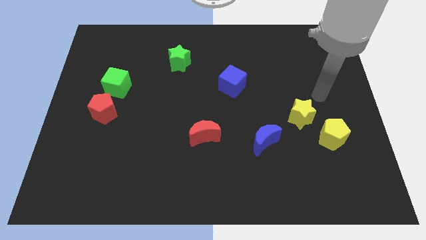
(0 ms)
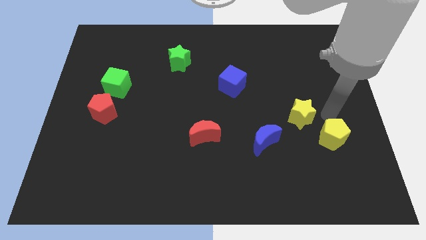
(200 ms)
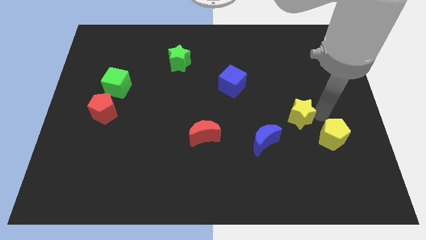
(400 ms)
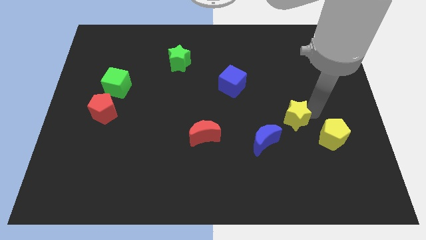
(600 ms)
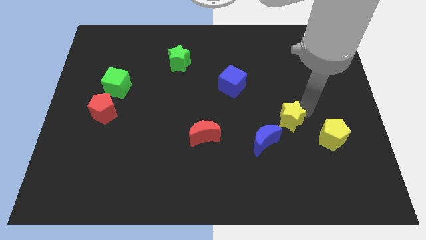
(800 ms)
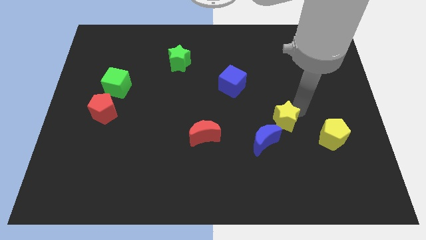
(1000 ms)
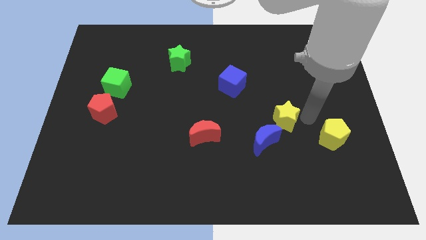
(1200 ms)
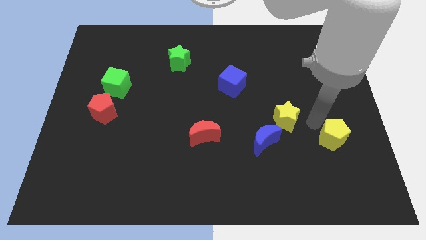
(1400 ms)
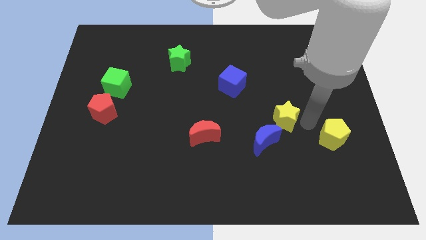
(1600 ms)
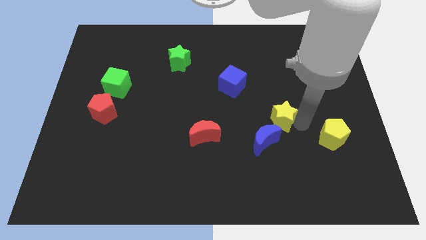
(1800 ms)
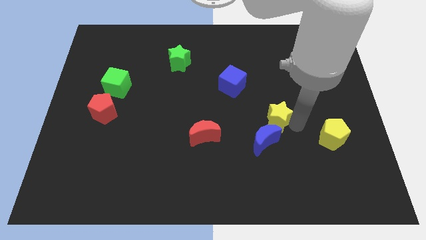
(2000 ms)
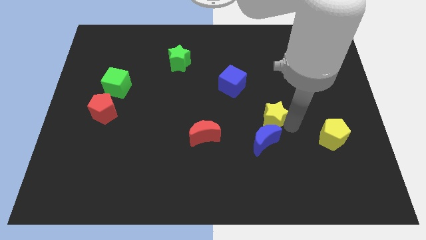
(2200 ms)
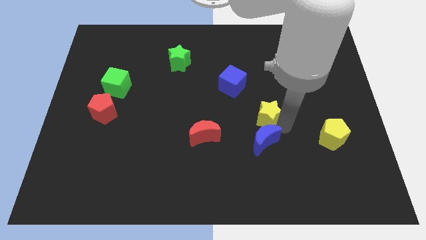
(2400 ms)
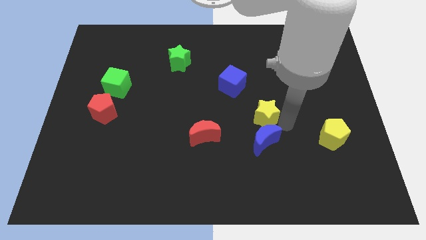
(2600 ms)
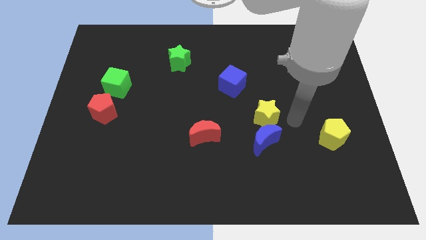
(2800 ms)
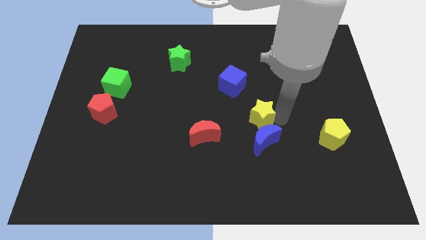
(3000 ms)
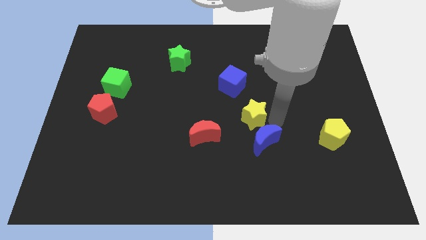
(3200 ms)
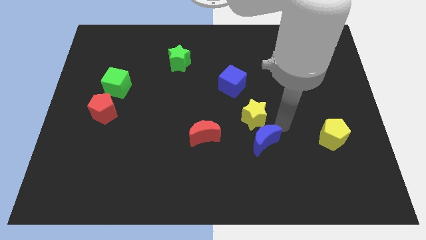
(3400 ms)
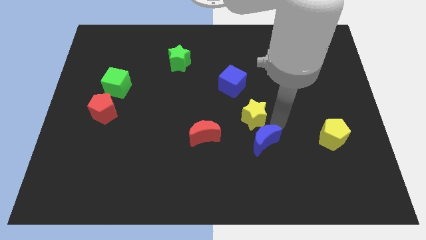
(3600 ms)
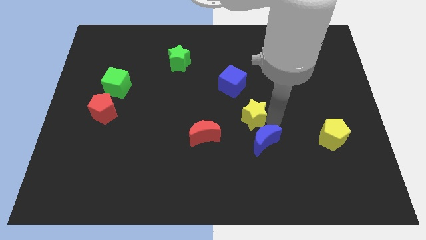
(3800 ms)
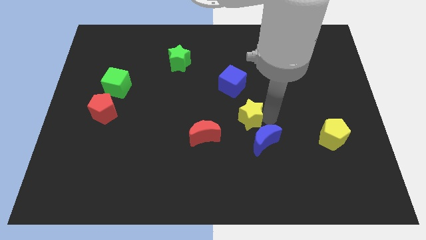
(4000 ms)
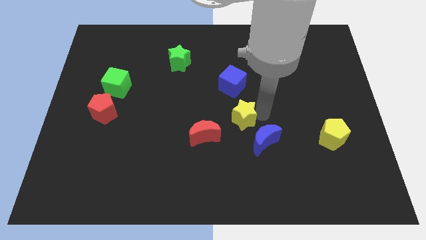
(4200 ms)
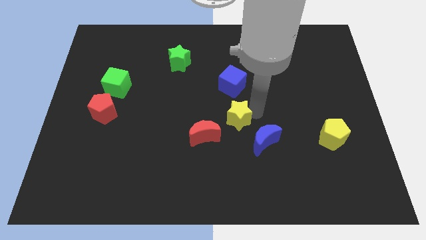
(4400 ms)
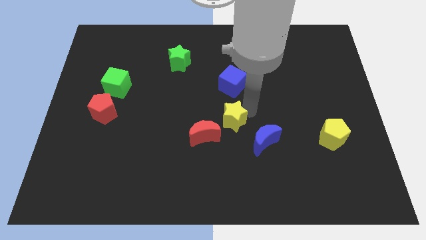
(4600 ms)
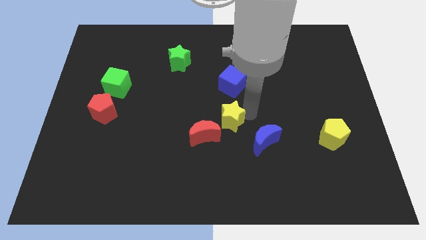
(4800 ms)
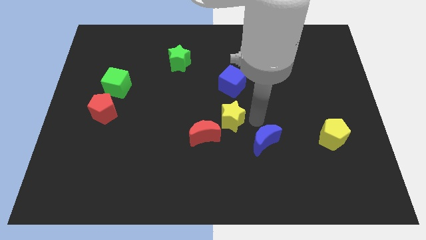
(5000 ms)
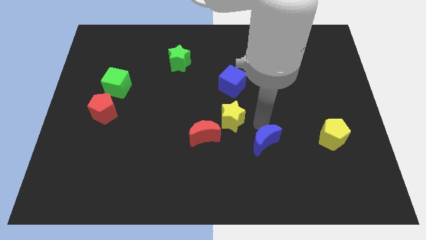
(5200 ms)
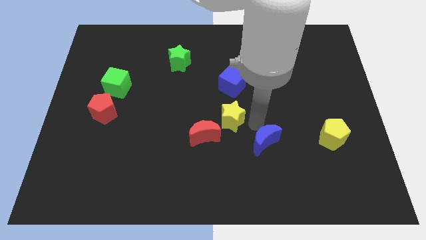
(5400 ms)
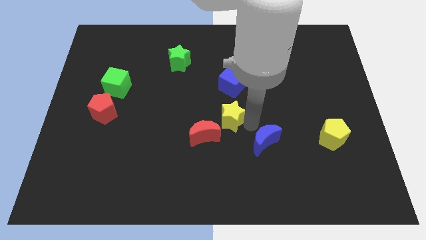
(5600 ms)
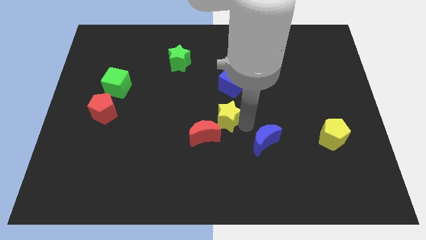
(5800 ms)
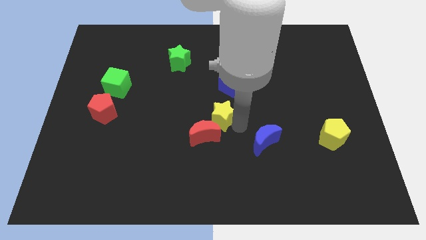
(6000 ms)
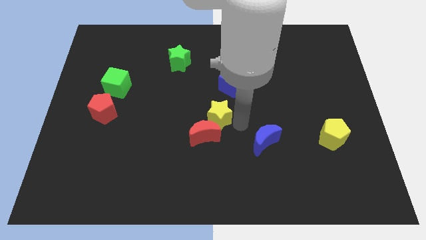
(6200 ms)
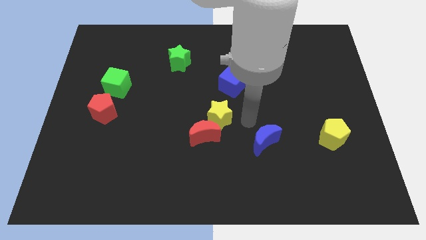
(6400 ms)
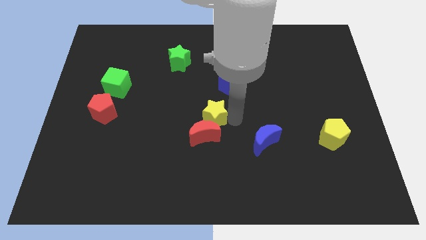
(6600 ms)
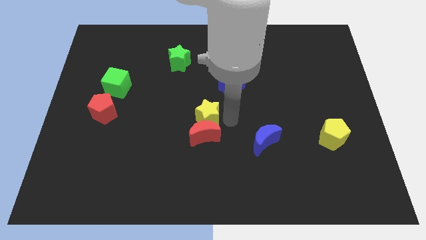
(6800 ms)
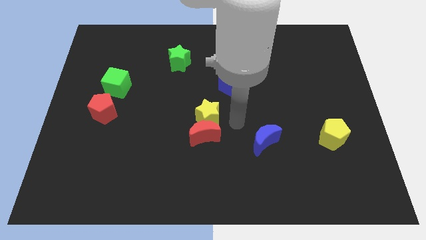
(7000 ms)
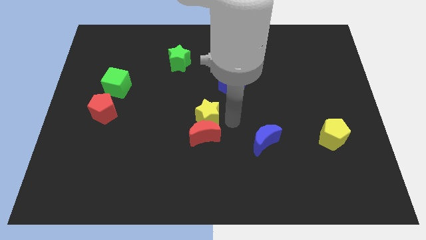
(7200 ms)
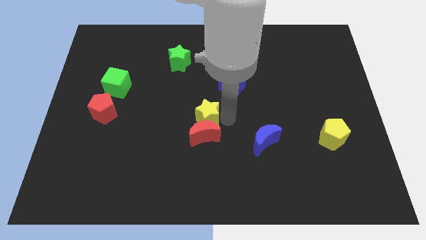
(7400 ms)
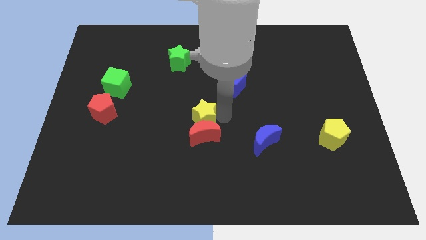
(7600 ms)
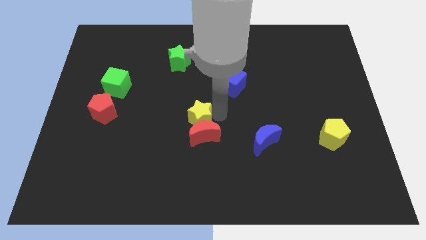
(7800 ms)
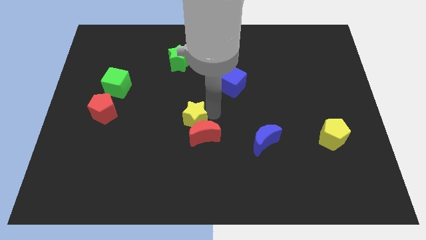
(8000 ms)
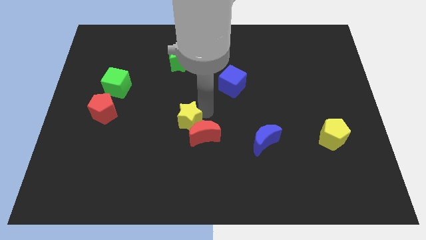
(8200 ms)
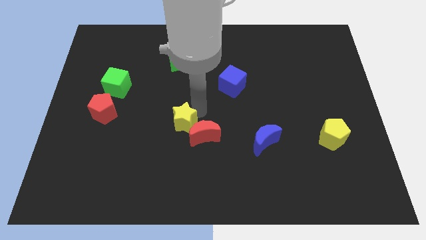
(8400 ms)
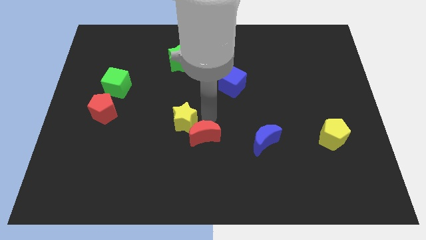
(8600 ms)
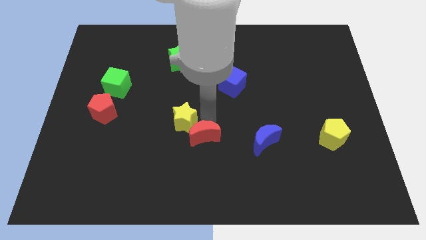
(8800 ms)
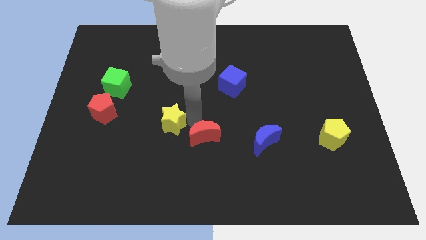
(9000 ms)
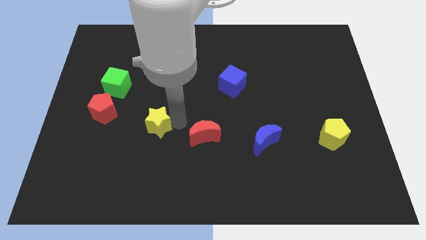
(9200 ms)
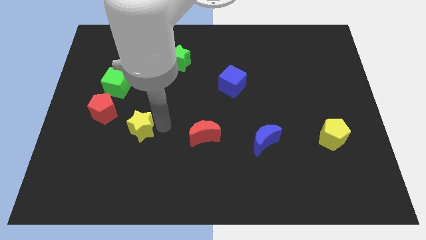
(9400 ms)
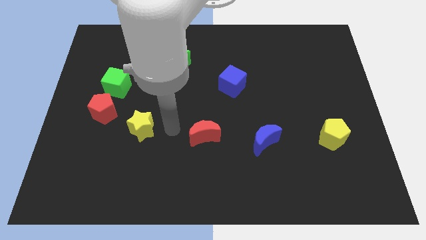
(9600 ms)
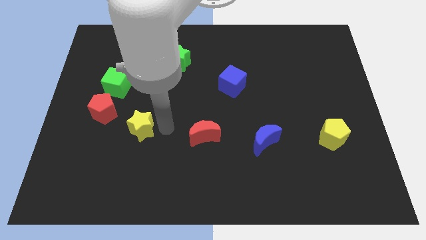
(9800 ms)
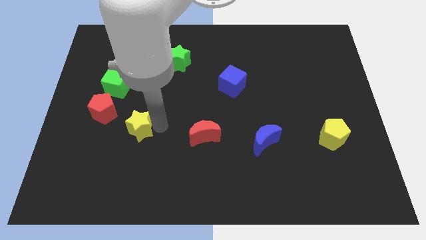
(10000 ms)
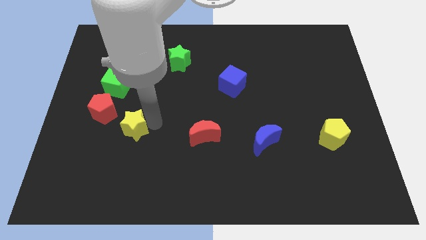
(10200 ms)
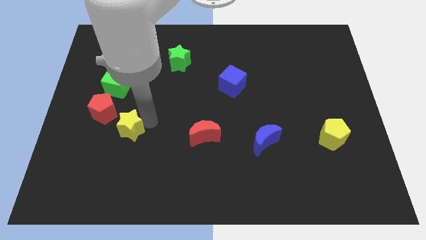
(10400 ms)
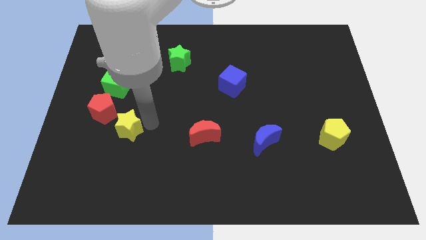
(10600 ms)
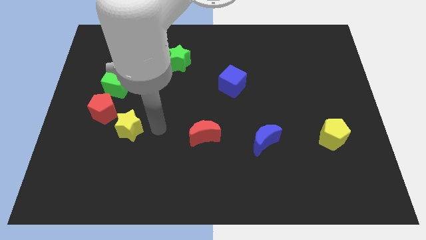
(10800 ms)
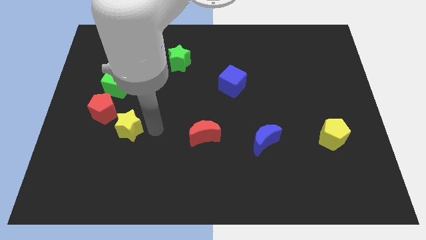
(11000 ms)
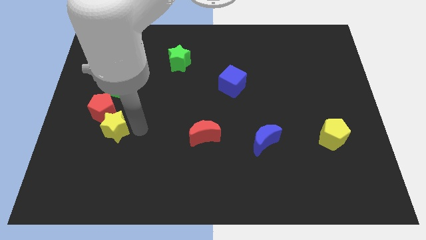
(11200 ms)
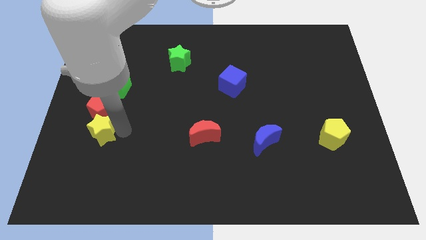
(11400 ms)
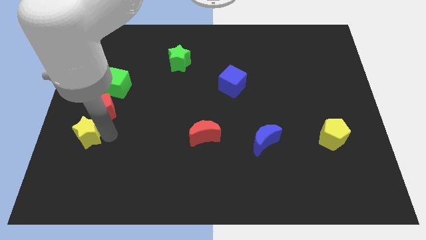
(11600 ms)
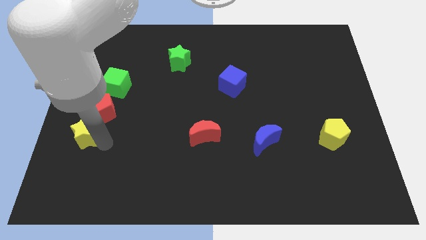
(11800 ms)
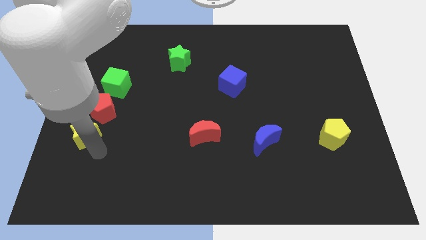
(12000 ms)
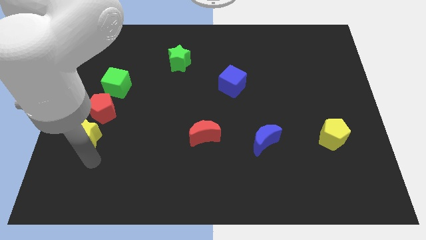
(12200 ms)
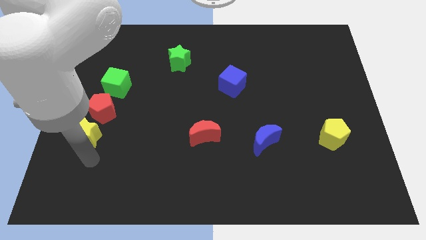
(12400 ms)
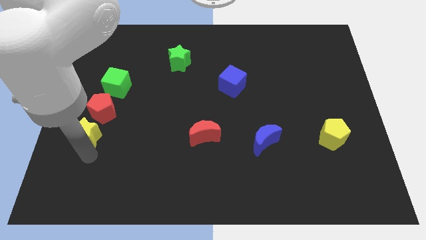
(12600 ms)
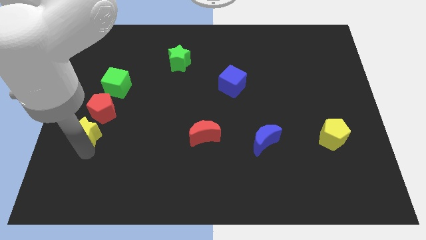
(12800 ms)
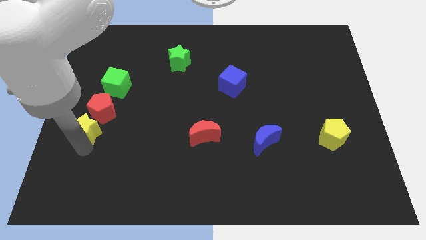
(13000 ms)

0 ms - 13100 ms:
put the yellow star to the left side

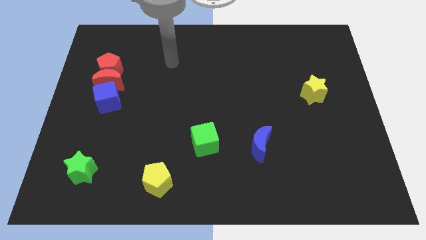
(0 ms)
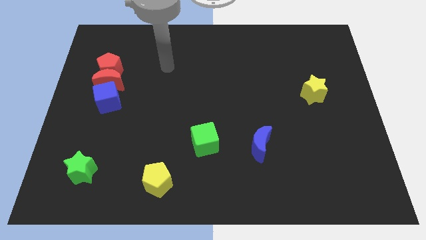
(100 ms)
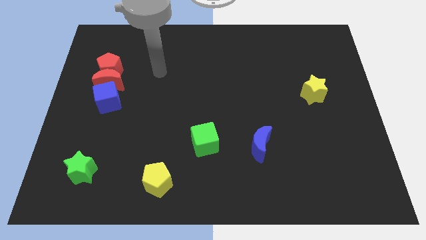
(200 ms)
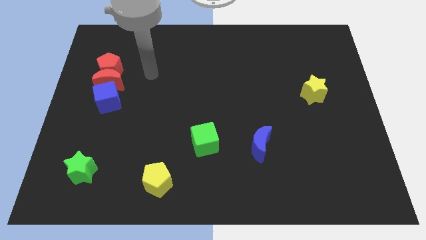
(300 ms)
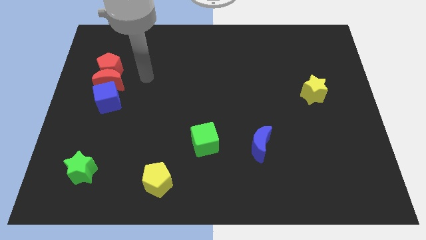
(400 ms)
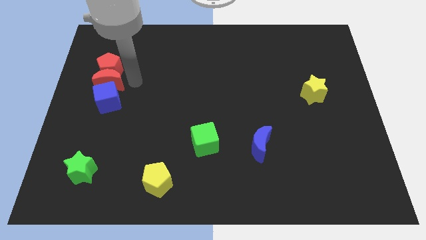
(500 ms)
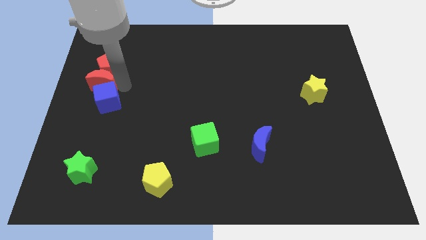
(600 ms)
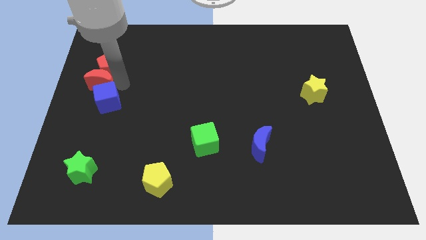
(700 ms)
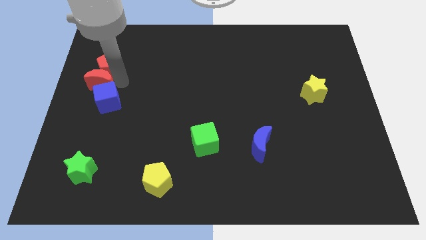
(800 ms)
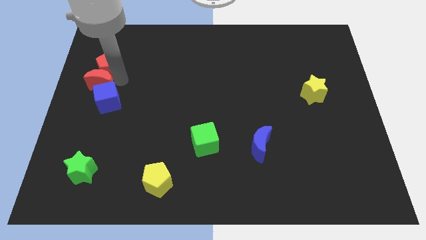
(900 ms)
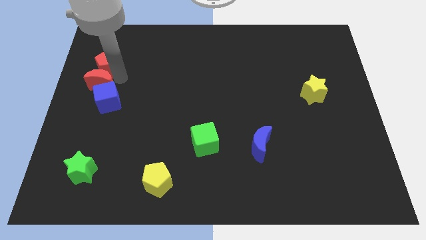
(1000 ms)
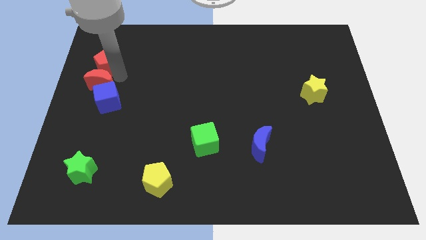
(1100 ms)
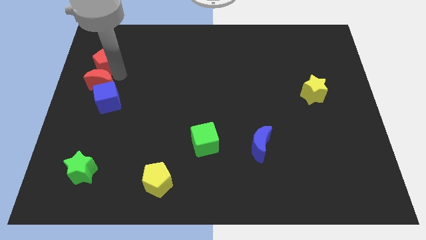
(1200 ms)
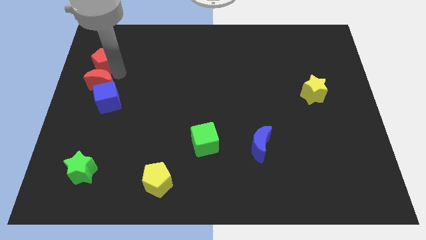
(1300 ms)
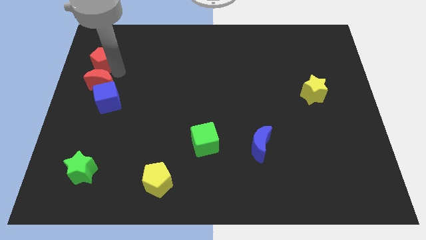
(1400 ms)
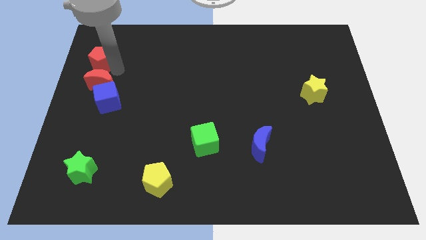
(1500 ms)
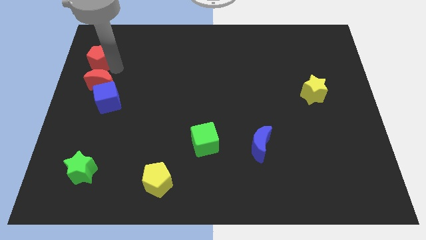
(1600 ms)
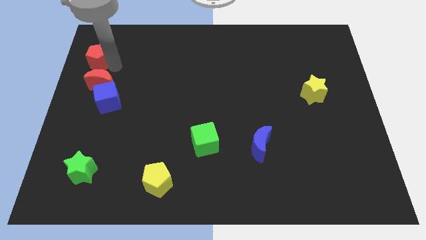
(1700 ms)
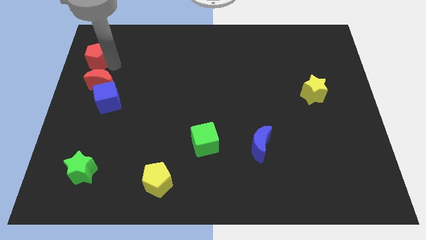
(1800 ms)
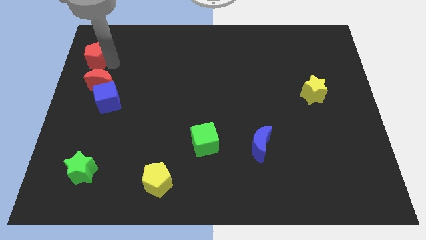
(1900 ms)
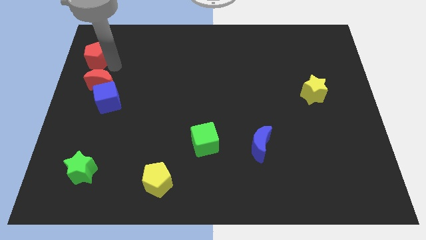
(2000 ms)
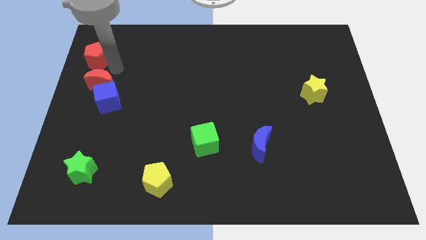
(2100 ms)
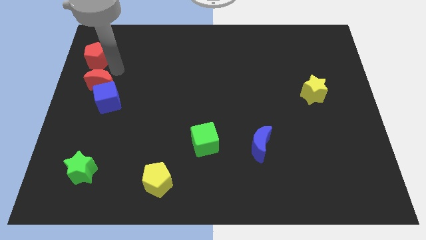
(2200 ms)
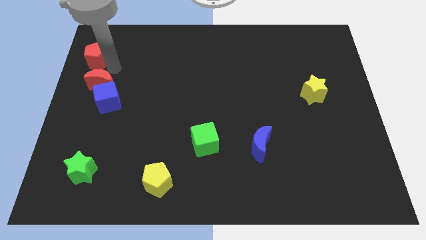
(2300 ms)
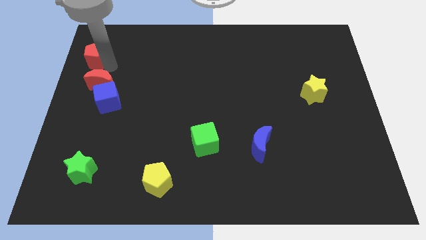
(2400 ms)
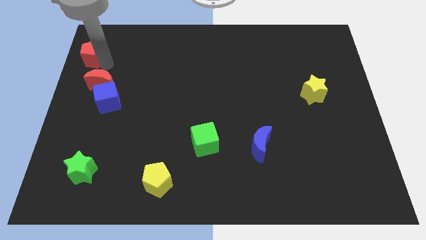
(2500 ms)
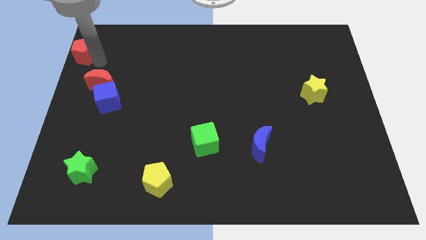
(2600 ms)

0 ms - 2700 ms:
put the red pentagon to the top left corner
